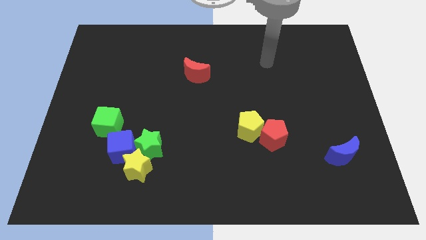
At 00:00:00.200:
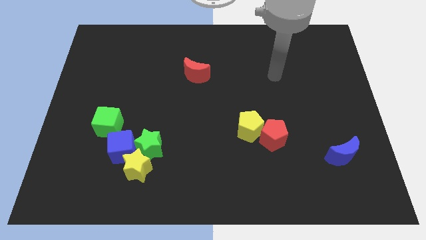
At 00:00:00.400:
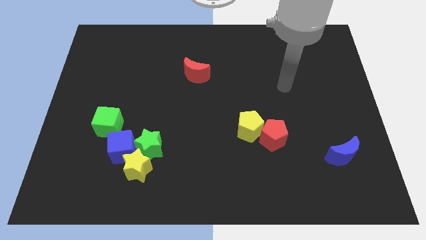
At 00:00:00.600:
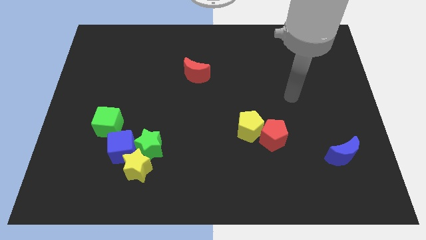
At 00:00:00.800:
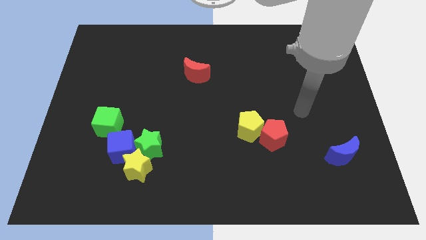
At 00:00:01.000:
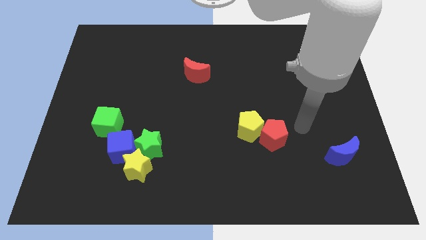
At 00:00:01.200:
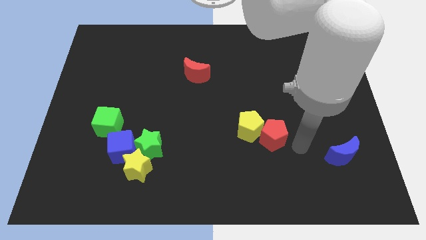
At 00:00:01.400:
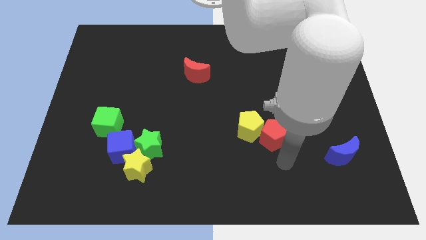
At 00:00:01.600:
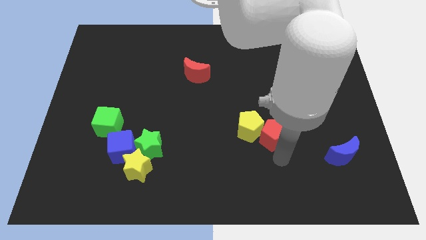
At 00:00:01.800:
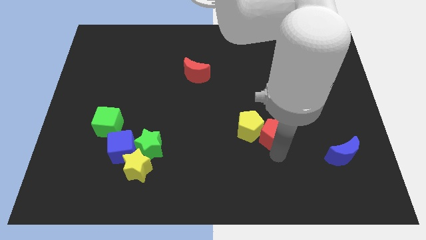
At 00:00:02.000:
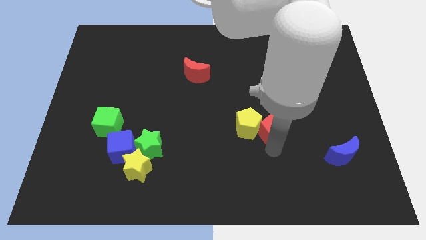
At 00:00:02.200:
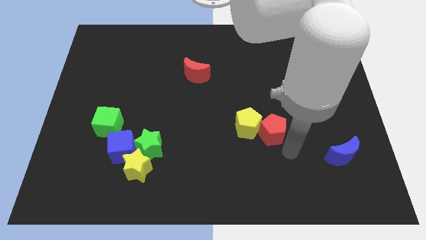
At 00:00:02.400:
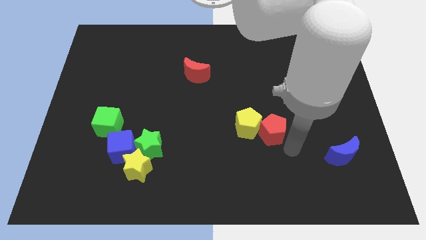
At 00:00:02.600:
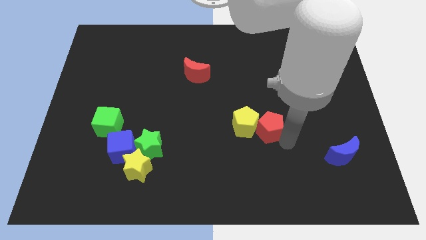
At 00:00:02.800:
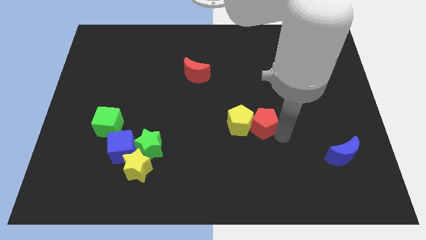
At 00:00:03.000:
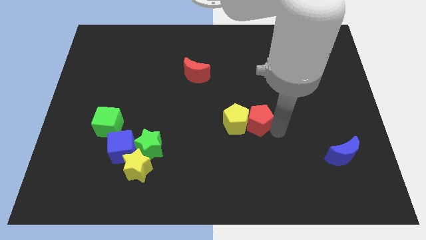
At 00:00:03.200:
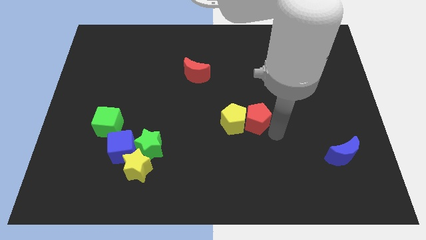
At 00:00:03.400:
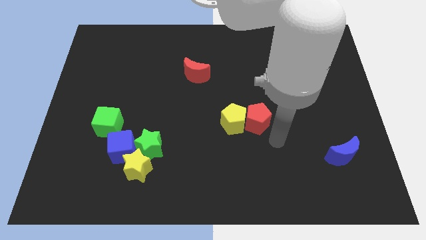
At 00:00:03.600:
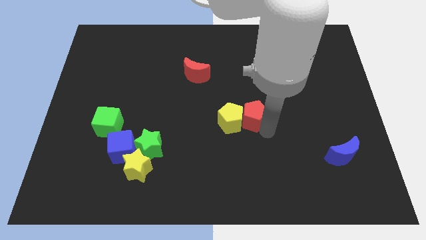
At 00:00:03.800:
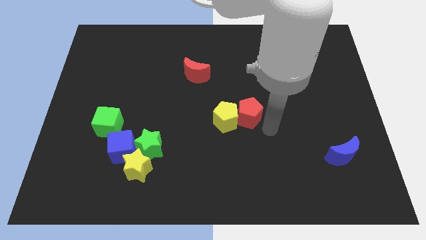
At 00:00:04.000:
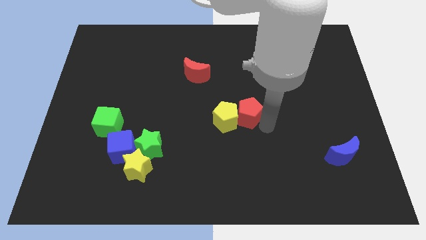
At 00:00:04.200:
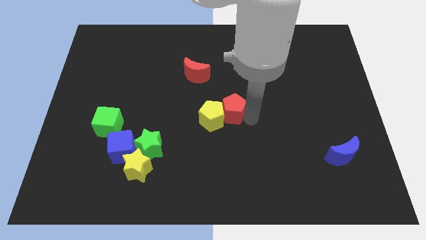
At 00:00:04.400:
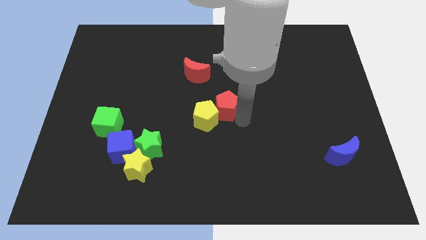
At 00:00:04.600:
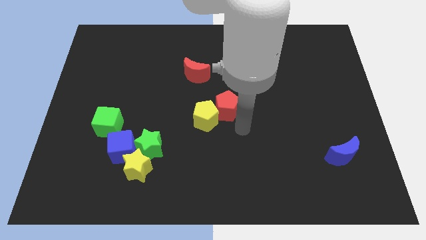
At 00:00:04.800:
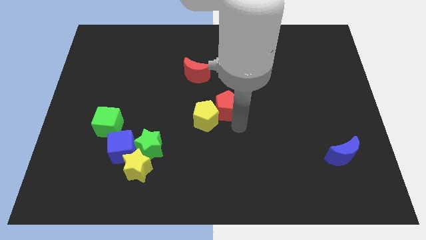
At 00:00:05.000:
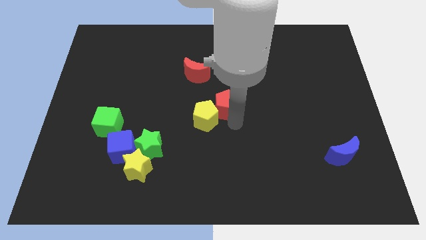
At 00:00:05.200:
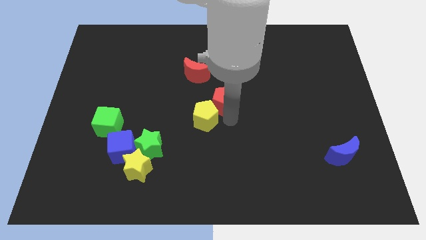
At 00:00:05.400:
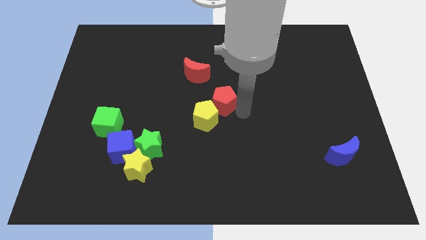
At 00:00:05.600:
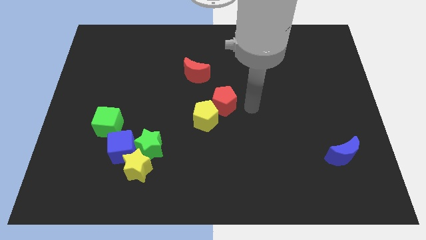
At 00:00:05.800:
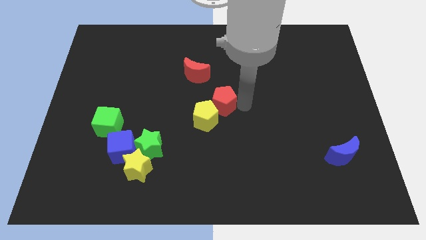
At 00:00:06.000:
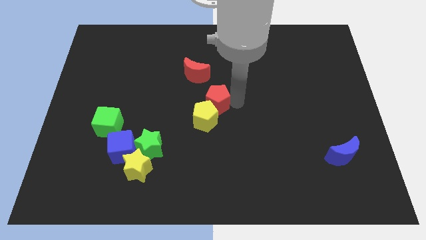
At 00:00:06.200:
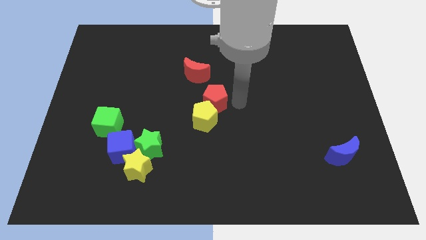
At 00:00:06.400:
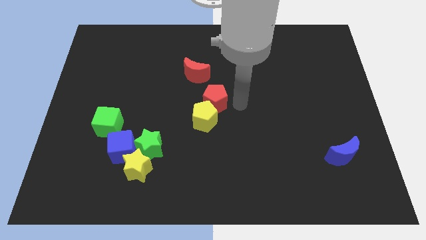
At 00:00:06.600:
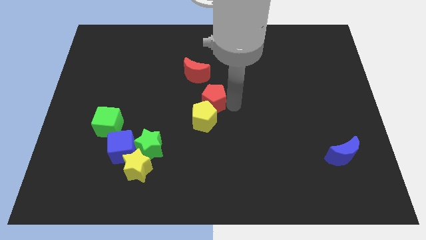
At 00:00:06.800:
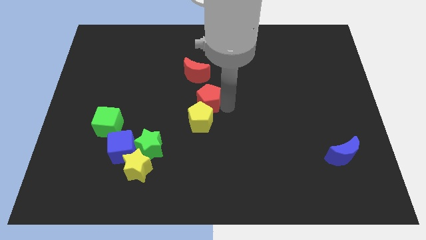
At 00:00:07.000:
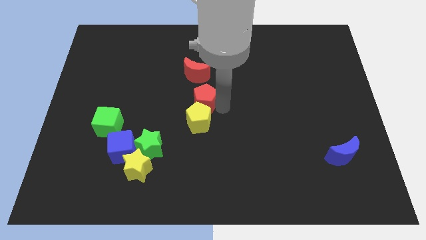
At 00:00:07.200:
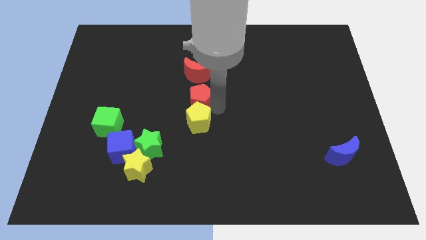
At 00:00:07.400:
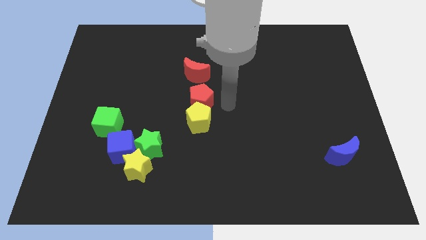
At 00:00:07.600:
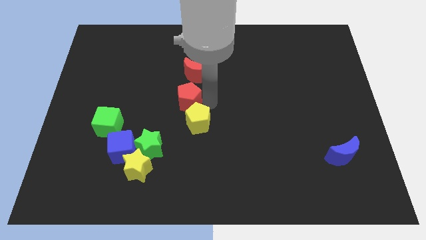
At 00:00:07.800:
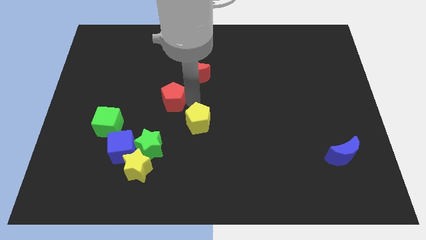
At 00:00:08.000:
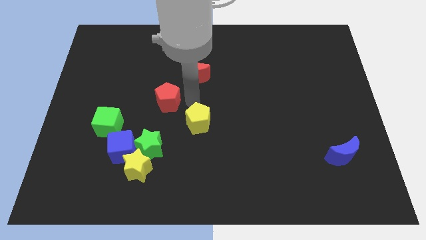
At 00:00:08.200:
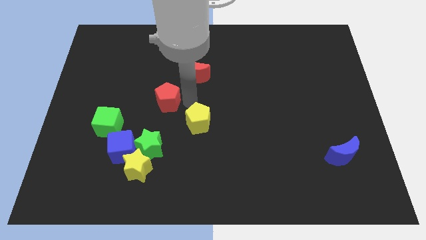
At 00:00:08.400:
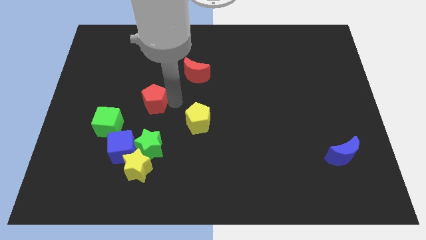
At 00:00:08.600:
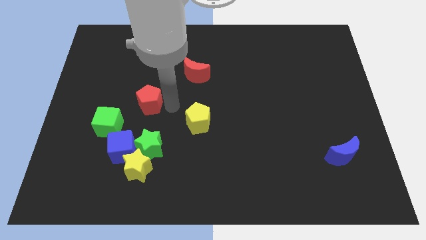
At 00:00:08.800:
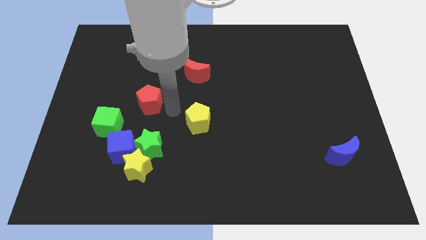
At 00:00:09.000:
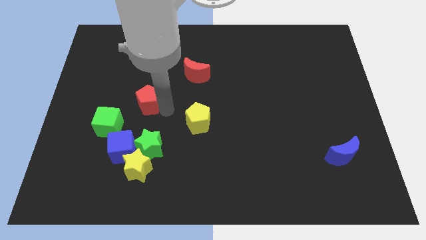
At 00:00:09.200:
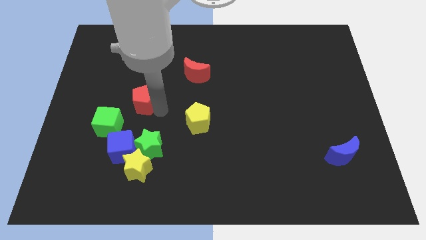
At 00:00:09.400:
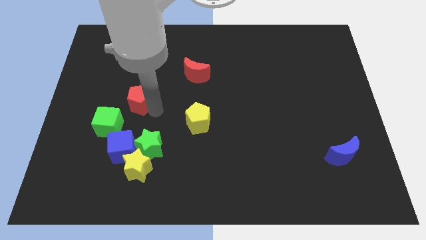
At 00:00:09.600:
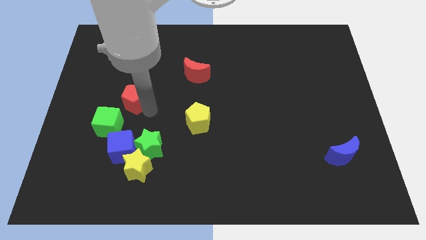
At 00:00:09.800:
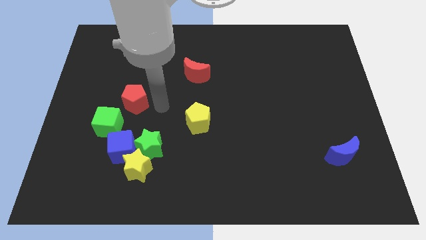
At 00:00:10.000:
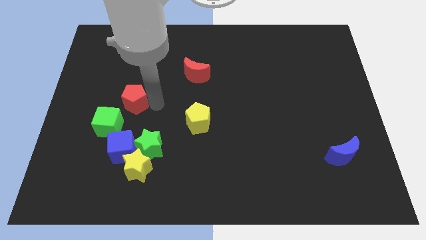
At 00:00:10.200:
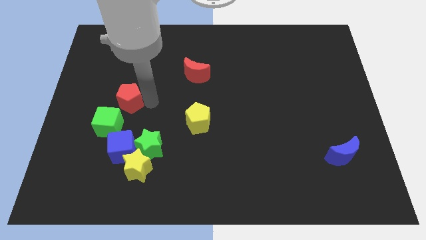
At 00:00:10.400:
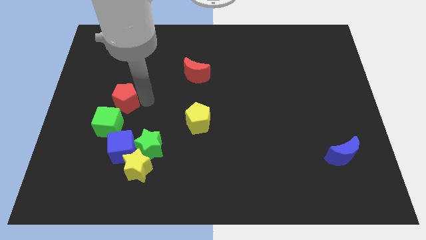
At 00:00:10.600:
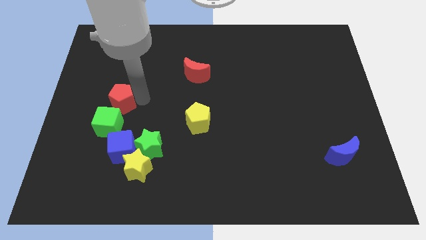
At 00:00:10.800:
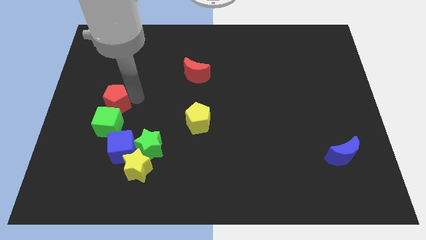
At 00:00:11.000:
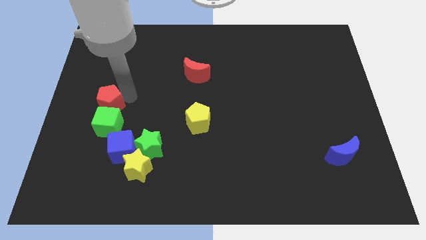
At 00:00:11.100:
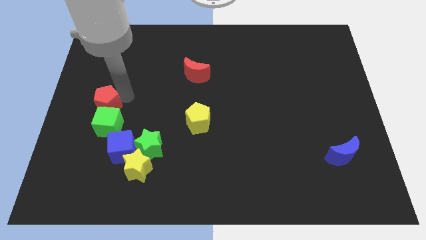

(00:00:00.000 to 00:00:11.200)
put the red pentagon to the center left
